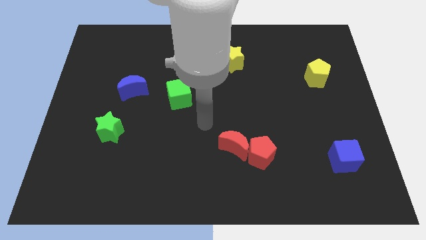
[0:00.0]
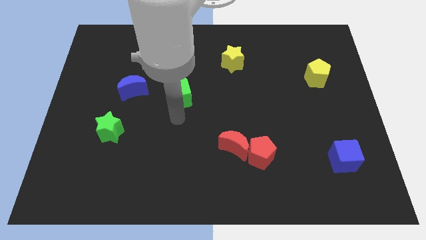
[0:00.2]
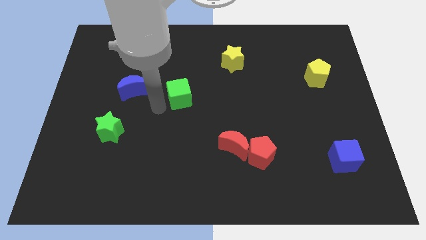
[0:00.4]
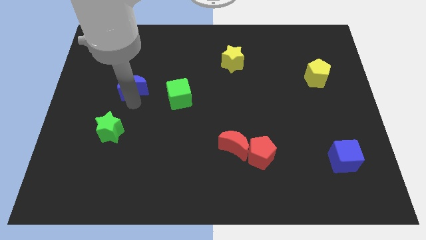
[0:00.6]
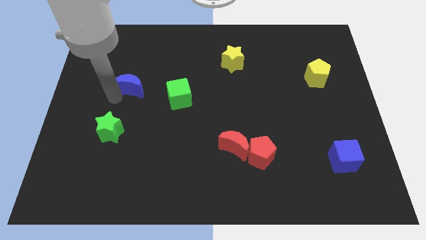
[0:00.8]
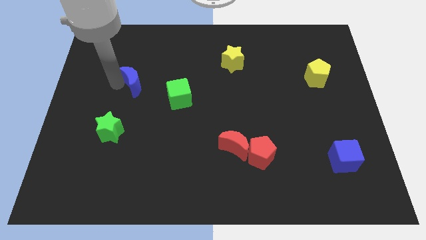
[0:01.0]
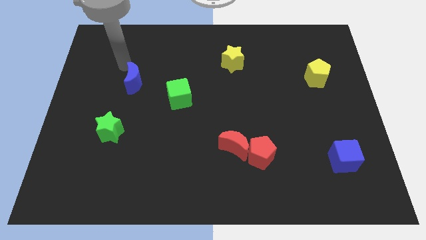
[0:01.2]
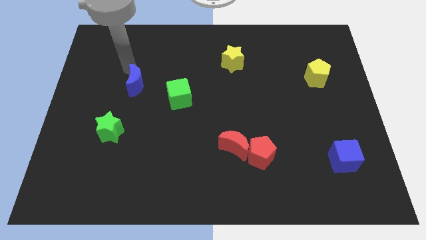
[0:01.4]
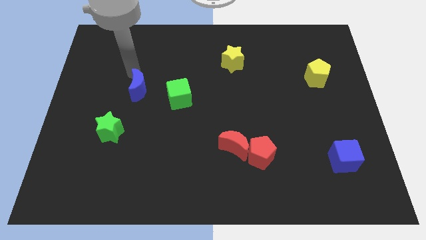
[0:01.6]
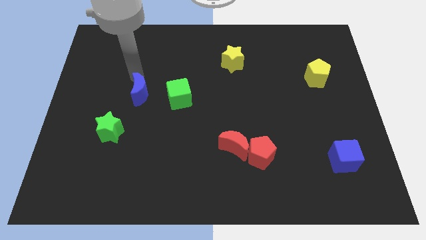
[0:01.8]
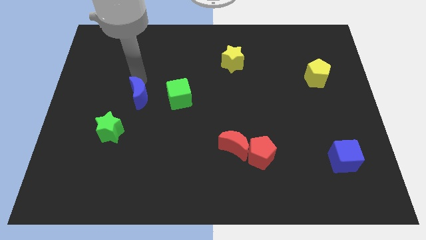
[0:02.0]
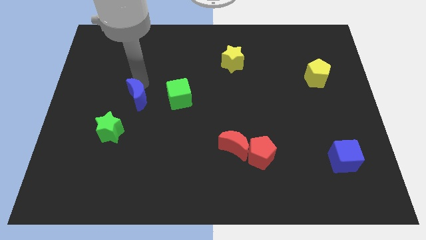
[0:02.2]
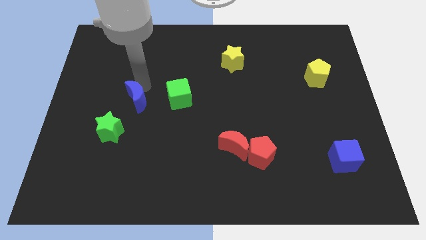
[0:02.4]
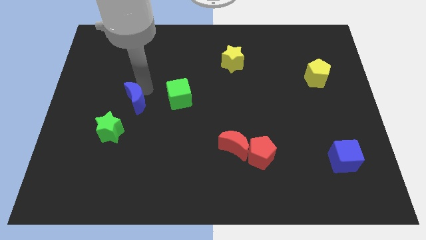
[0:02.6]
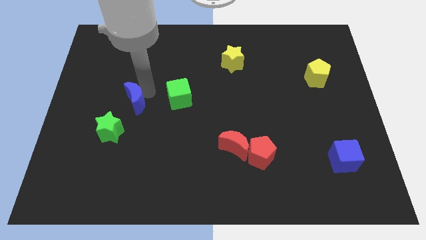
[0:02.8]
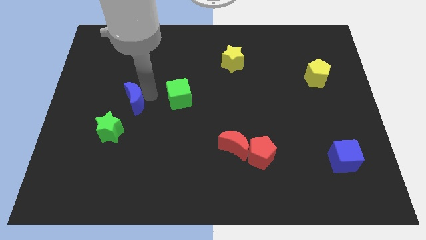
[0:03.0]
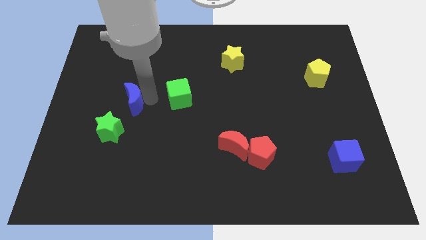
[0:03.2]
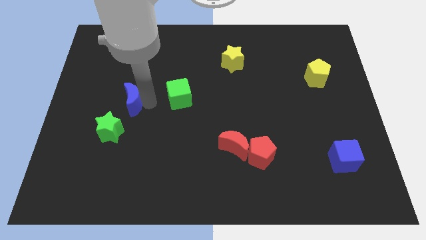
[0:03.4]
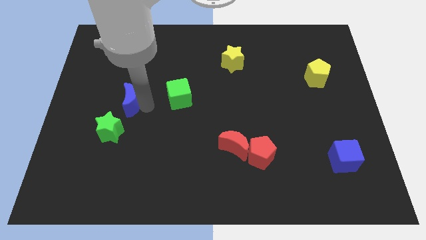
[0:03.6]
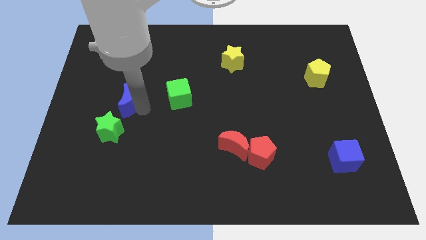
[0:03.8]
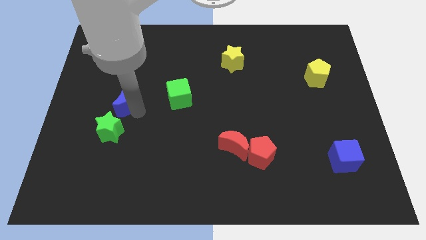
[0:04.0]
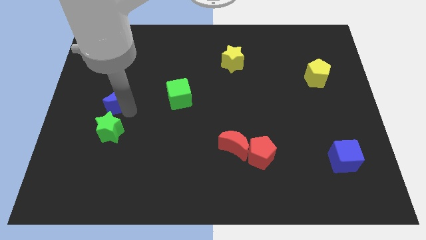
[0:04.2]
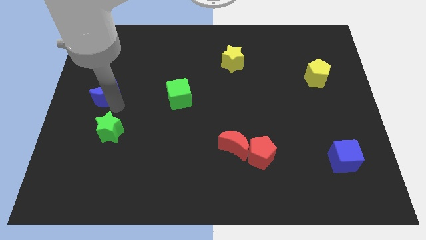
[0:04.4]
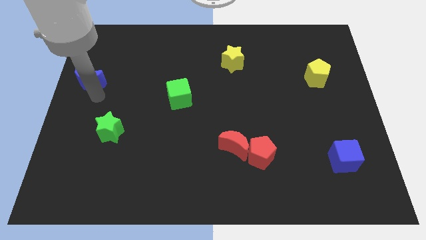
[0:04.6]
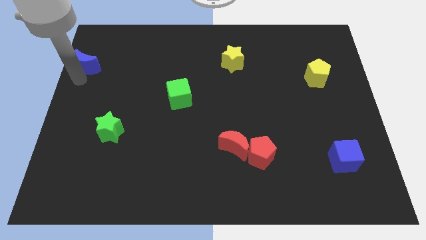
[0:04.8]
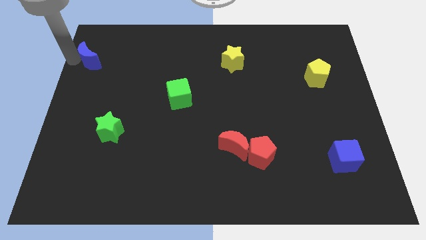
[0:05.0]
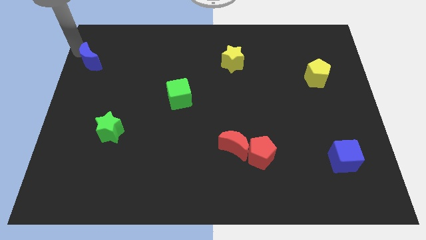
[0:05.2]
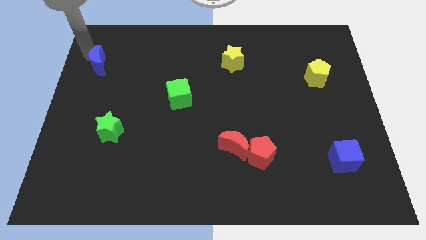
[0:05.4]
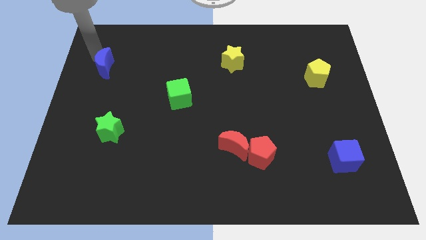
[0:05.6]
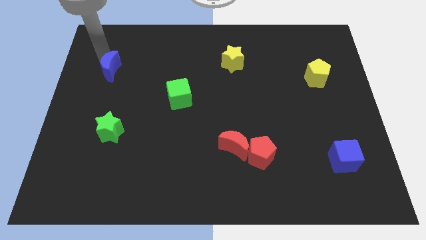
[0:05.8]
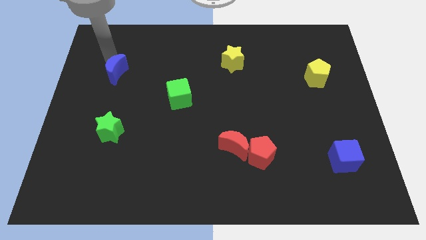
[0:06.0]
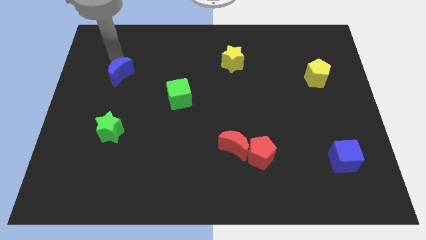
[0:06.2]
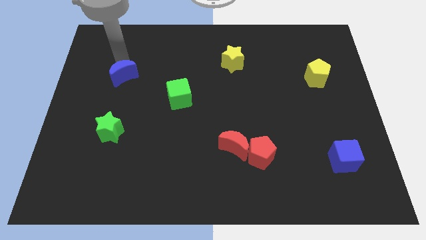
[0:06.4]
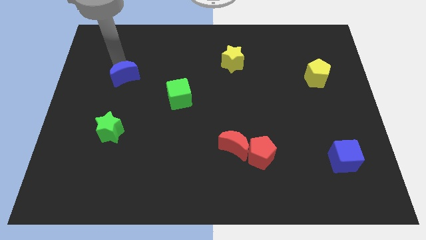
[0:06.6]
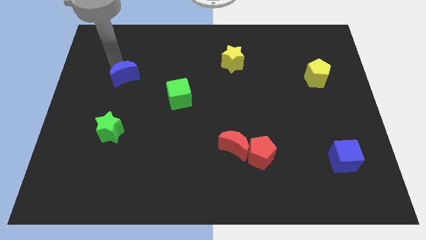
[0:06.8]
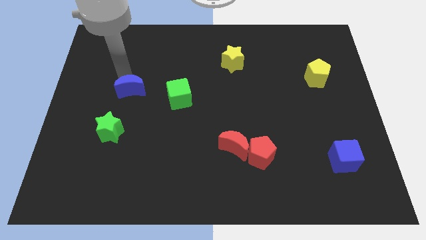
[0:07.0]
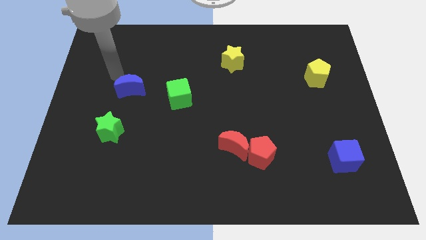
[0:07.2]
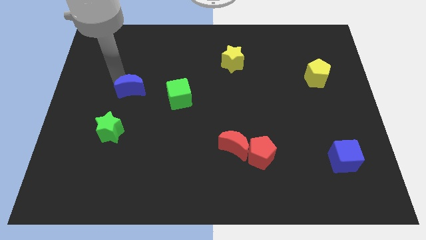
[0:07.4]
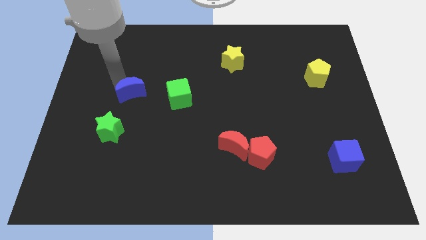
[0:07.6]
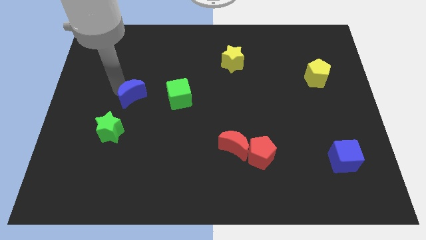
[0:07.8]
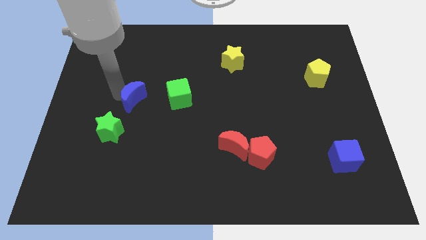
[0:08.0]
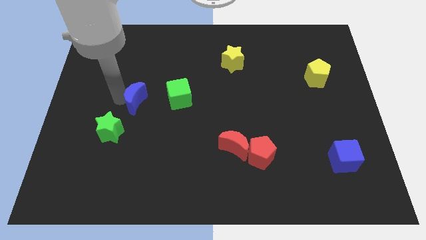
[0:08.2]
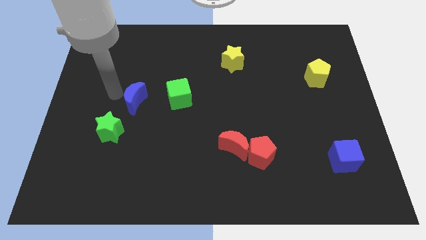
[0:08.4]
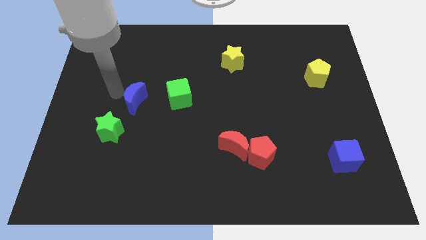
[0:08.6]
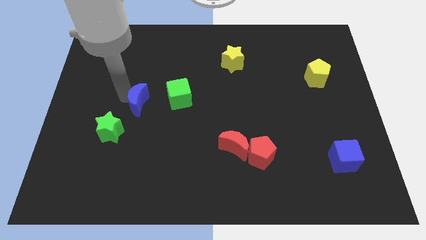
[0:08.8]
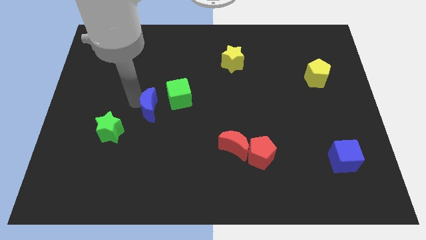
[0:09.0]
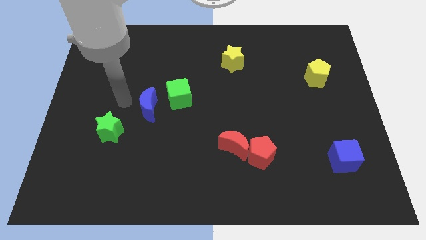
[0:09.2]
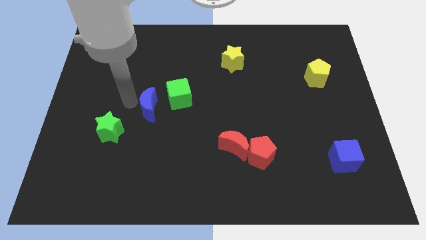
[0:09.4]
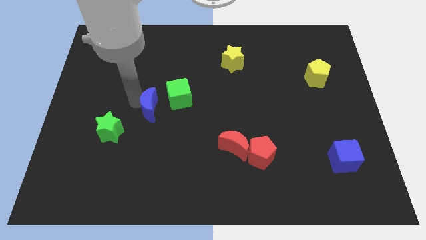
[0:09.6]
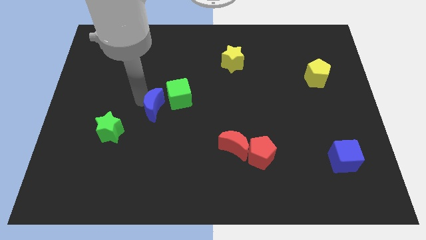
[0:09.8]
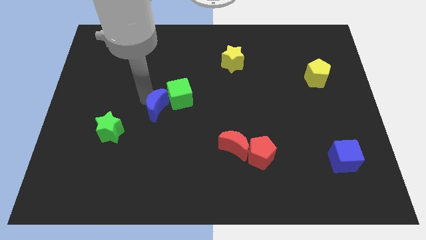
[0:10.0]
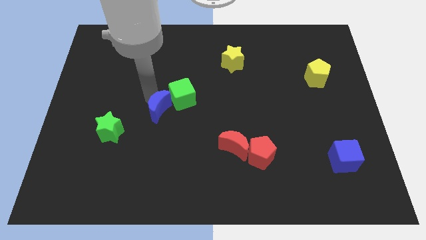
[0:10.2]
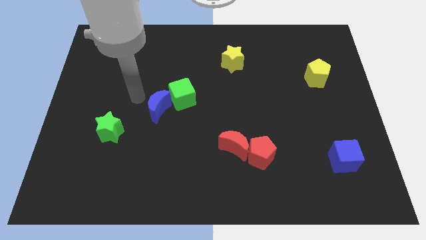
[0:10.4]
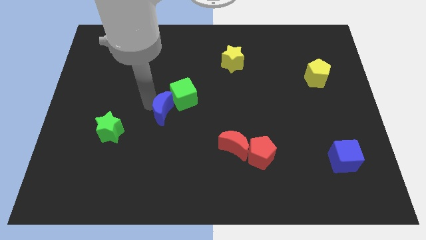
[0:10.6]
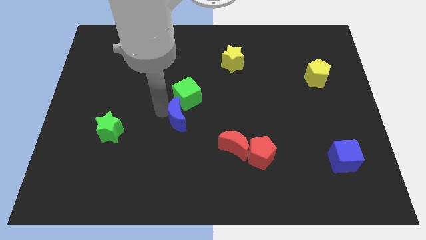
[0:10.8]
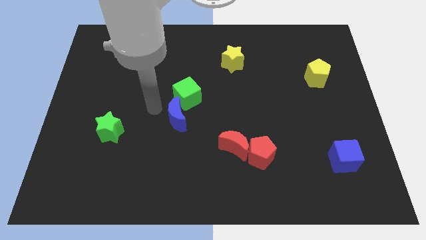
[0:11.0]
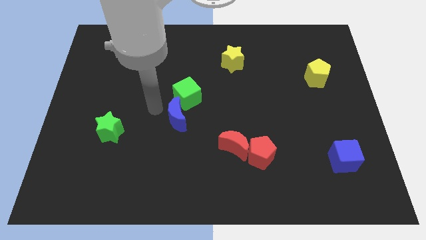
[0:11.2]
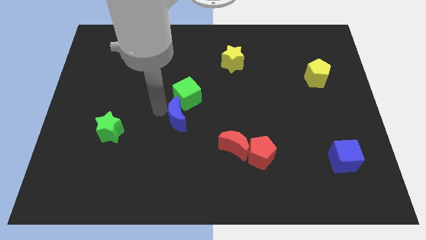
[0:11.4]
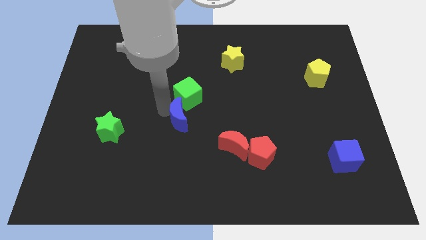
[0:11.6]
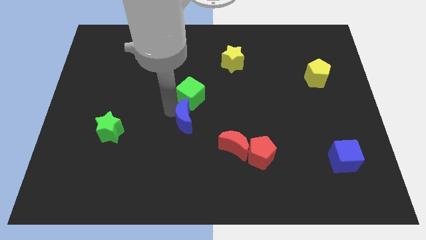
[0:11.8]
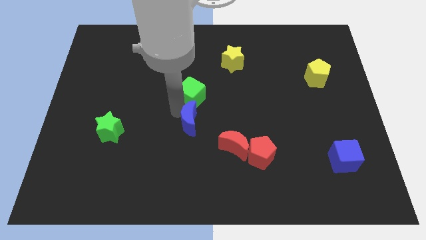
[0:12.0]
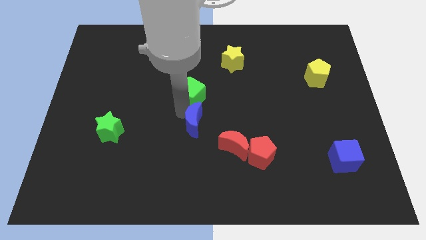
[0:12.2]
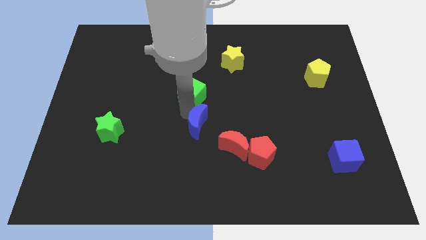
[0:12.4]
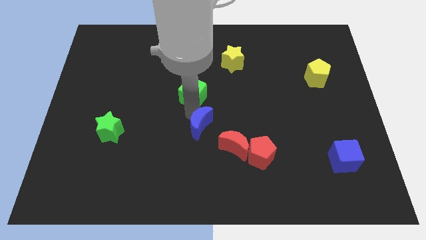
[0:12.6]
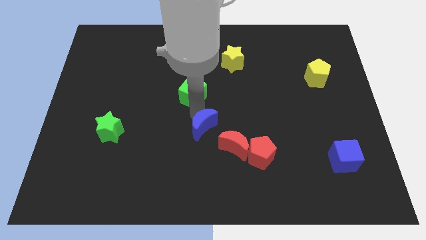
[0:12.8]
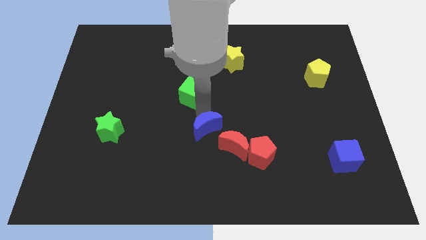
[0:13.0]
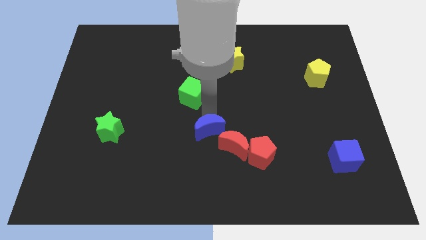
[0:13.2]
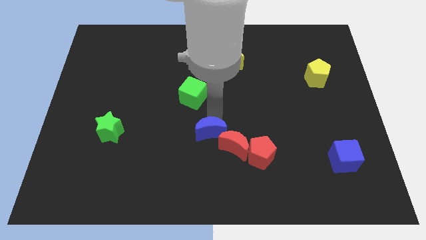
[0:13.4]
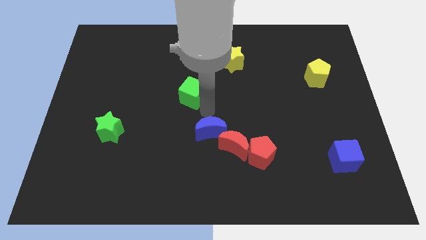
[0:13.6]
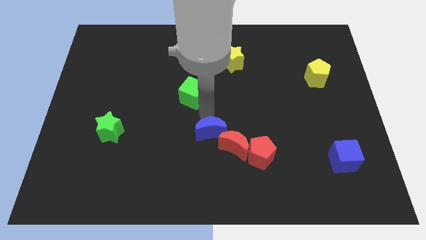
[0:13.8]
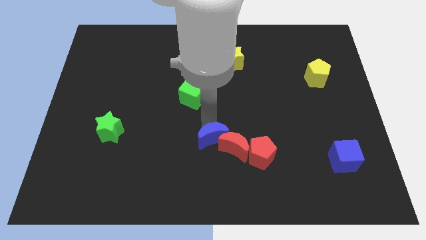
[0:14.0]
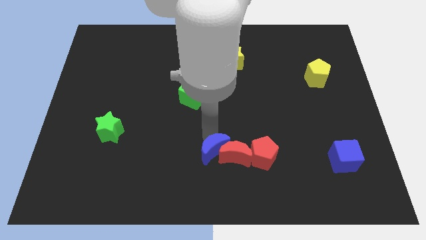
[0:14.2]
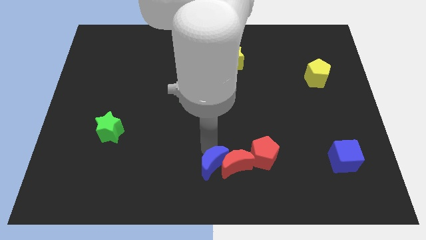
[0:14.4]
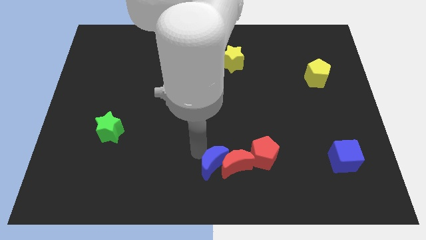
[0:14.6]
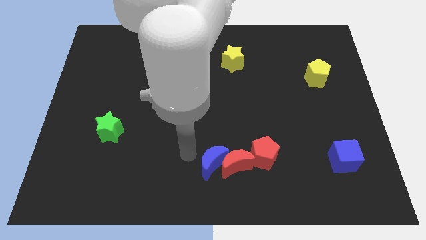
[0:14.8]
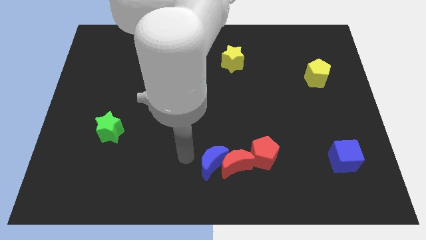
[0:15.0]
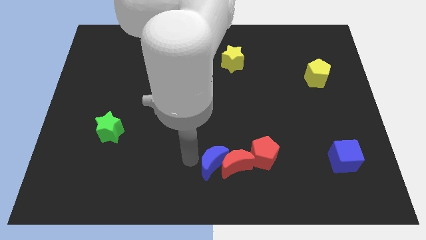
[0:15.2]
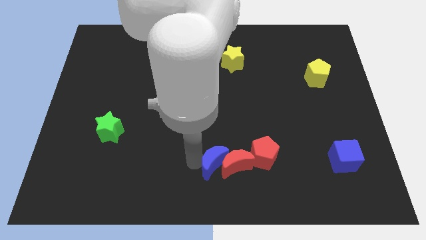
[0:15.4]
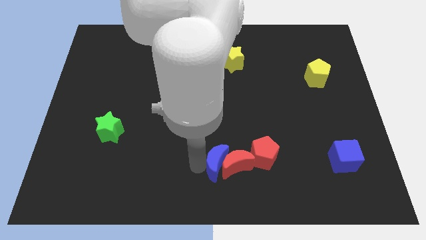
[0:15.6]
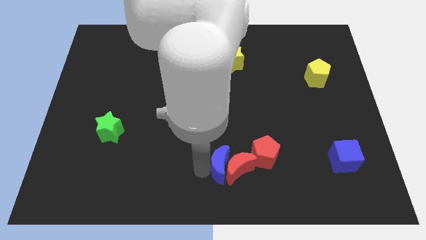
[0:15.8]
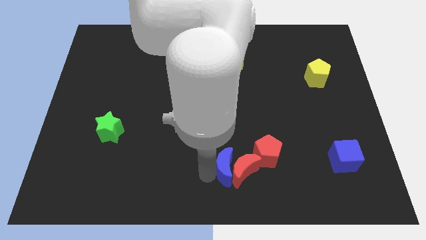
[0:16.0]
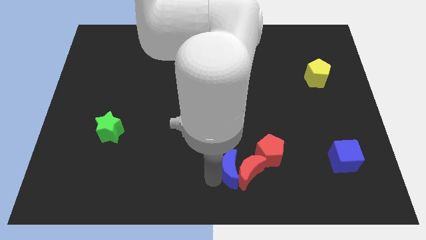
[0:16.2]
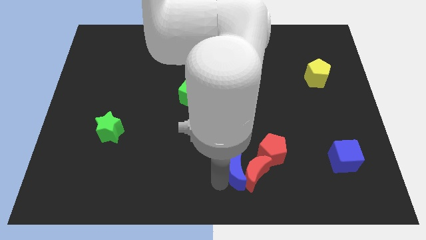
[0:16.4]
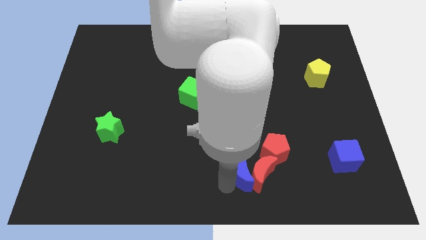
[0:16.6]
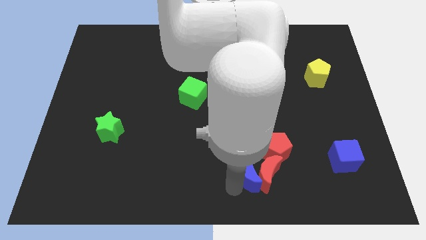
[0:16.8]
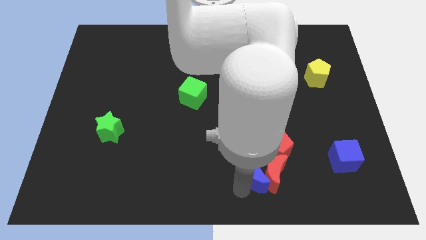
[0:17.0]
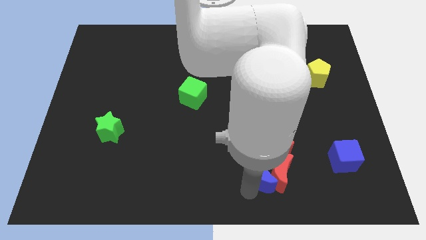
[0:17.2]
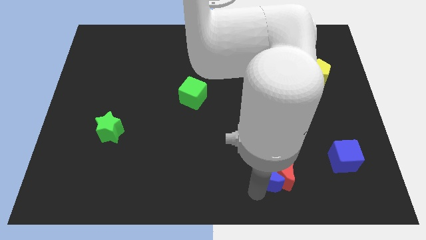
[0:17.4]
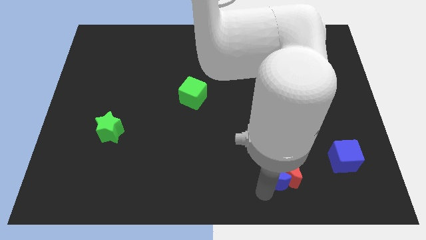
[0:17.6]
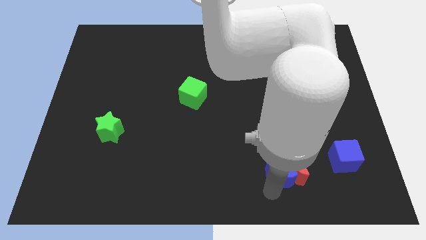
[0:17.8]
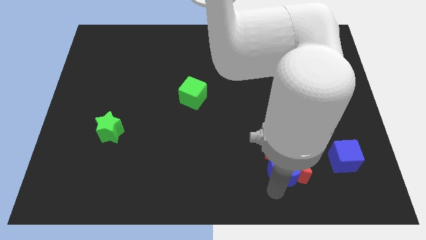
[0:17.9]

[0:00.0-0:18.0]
put the blue moon towards the red pentagon
